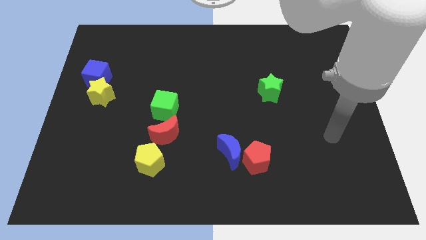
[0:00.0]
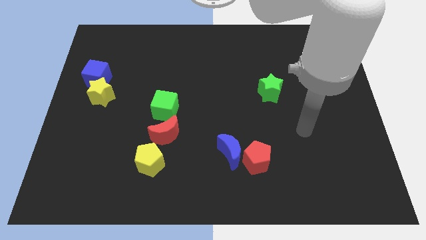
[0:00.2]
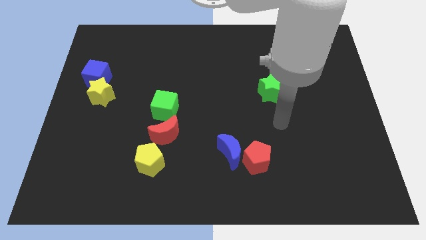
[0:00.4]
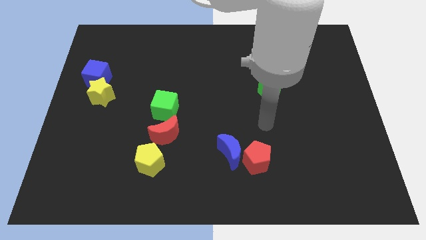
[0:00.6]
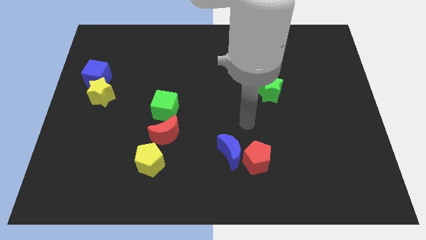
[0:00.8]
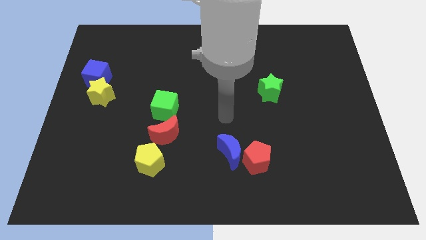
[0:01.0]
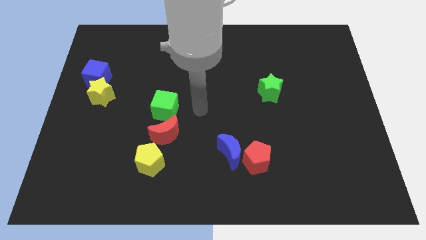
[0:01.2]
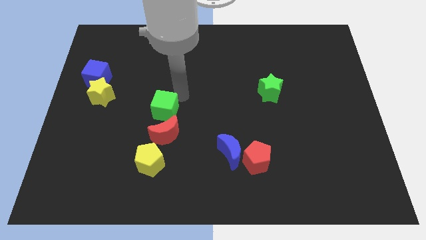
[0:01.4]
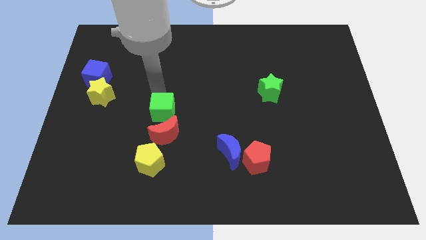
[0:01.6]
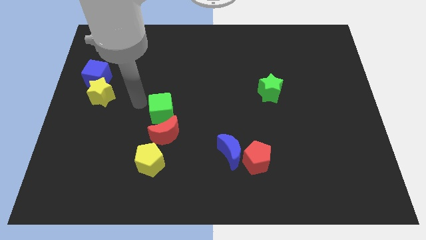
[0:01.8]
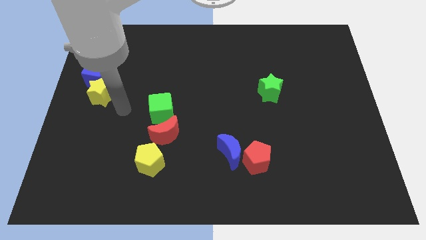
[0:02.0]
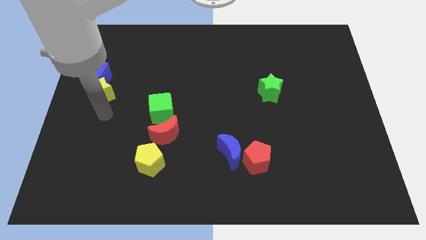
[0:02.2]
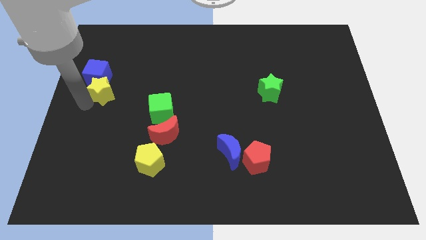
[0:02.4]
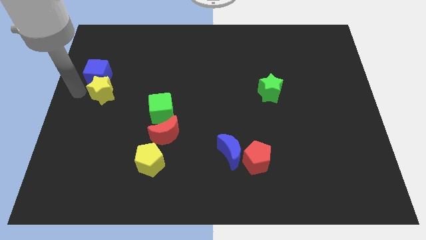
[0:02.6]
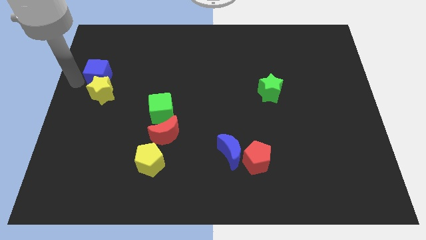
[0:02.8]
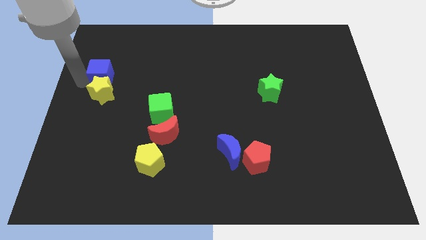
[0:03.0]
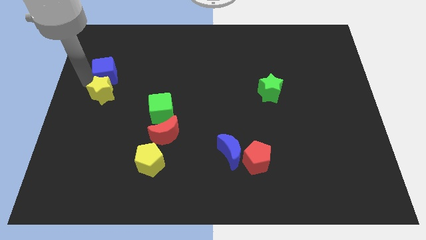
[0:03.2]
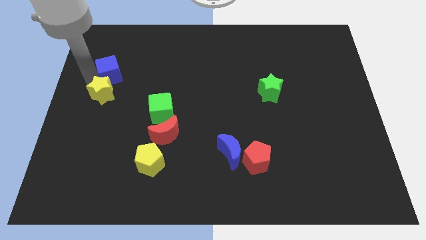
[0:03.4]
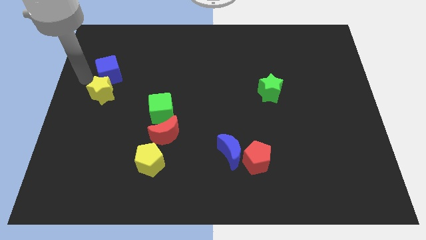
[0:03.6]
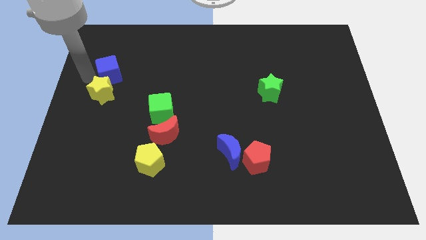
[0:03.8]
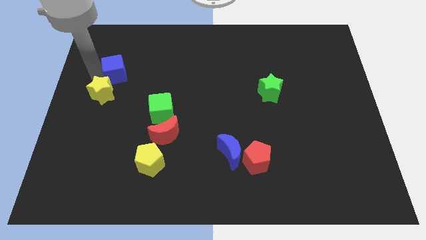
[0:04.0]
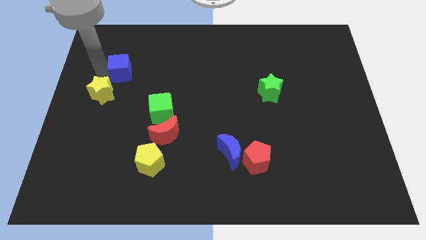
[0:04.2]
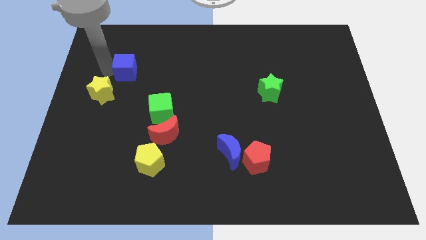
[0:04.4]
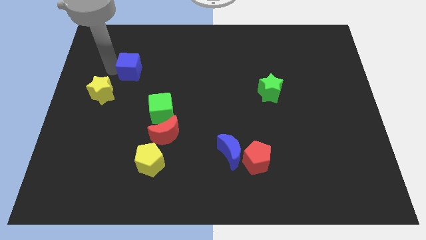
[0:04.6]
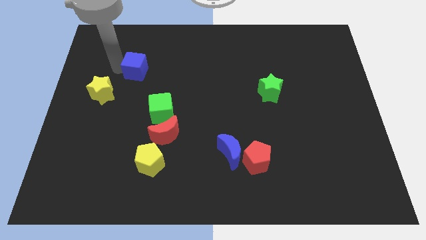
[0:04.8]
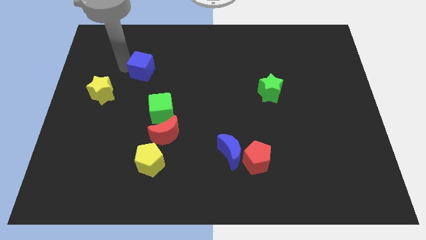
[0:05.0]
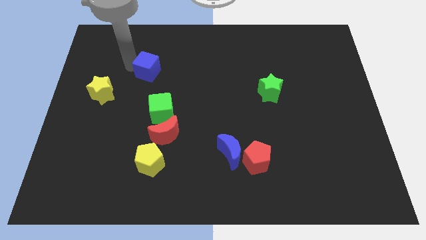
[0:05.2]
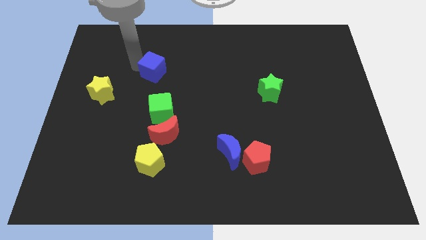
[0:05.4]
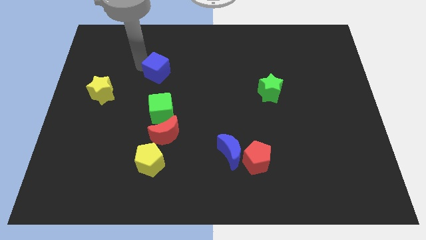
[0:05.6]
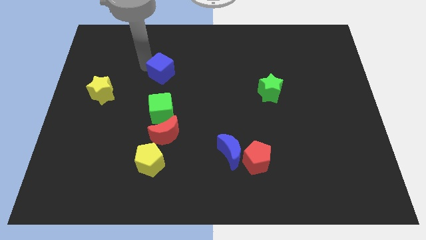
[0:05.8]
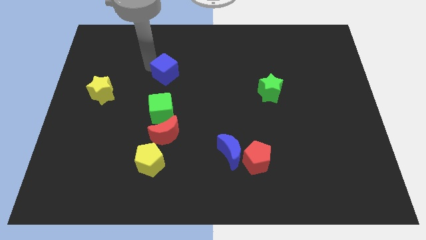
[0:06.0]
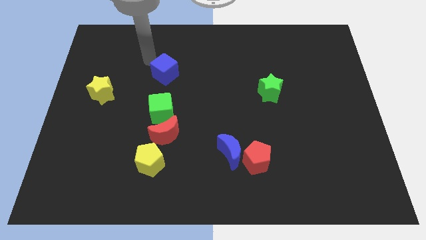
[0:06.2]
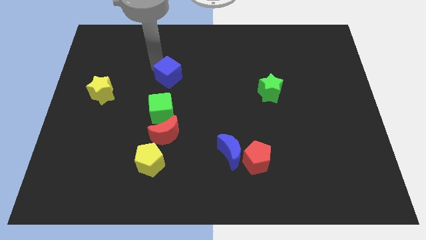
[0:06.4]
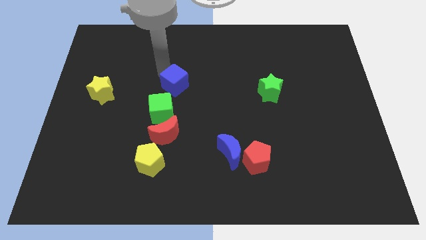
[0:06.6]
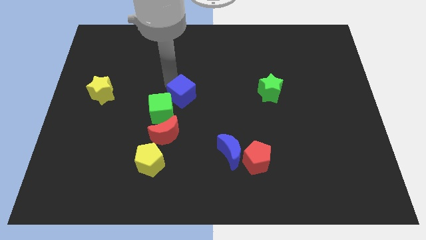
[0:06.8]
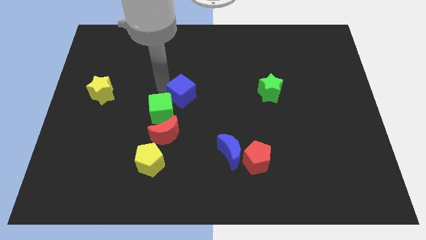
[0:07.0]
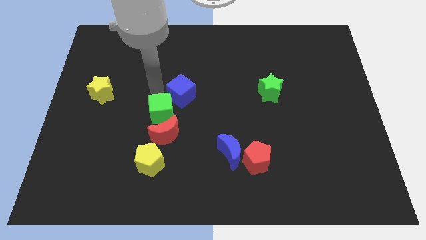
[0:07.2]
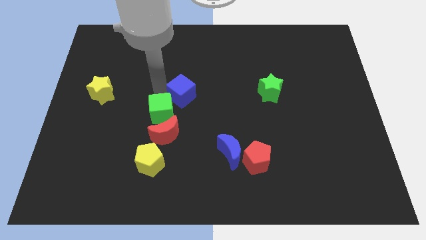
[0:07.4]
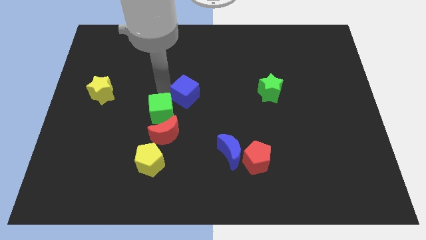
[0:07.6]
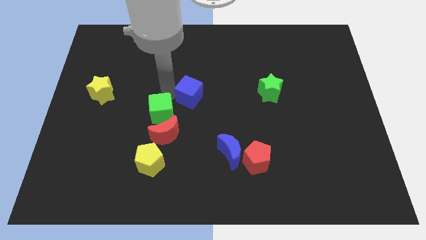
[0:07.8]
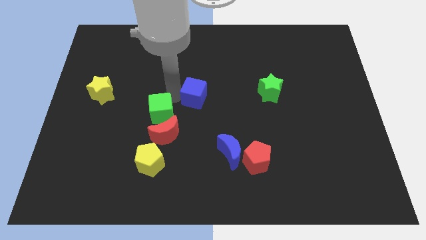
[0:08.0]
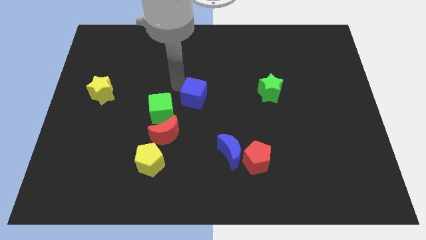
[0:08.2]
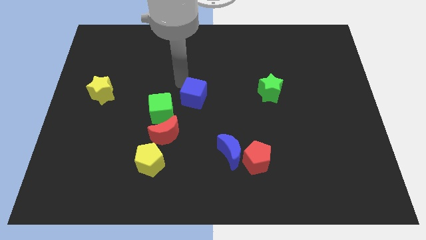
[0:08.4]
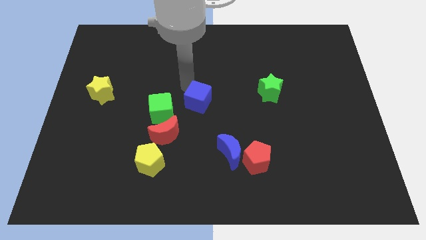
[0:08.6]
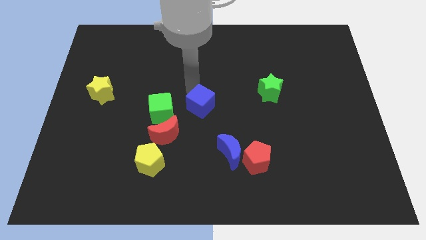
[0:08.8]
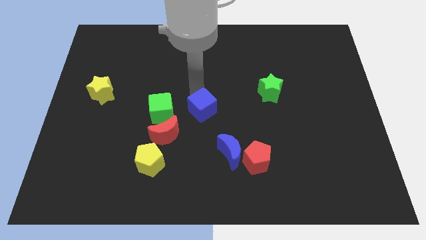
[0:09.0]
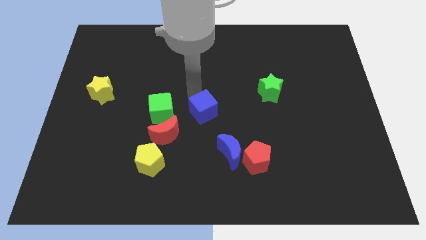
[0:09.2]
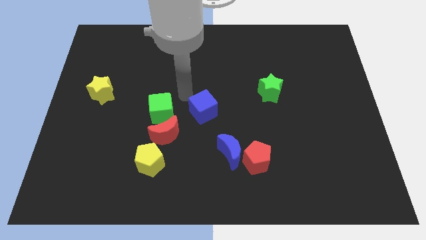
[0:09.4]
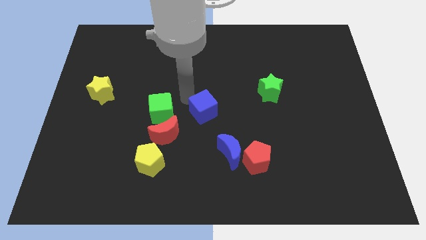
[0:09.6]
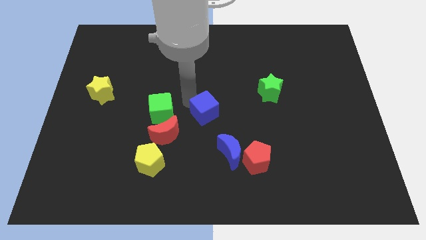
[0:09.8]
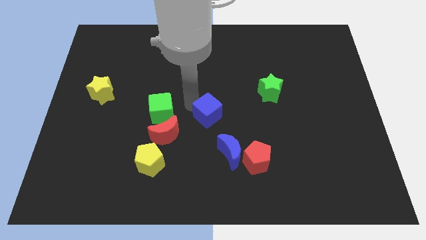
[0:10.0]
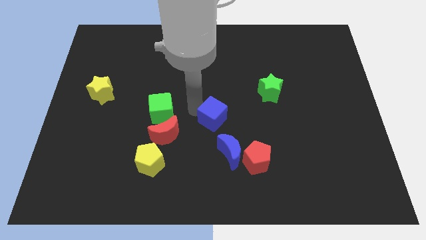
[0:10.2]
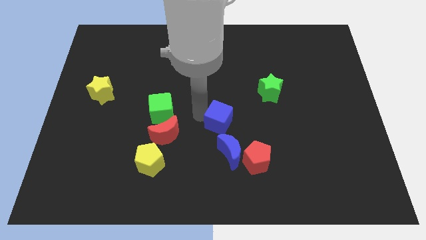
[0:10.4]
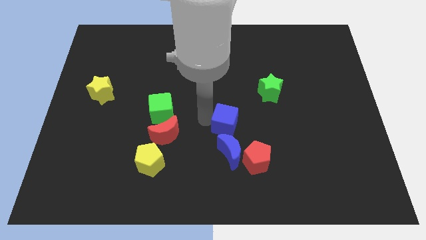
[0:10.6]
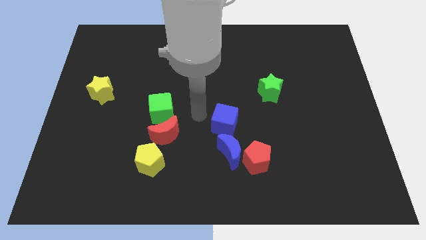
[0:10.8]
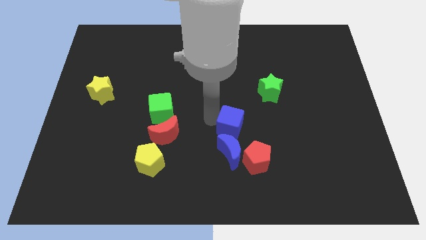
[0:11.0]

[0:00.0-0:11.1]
push the blue cube diagonally up and to the right of the blue moon
